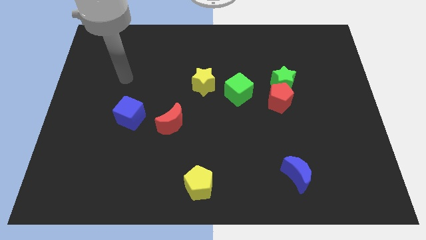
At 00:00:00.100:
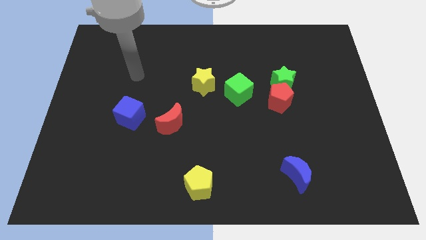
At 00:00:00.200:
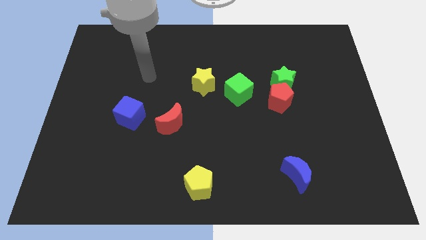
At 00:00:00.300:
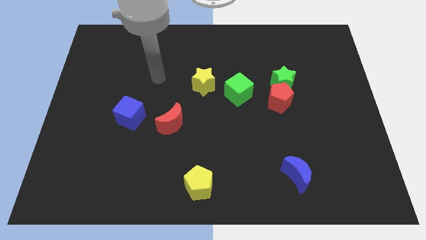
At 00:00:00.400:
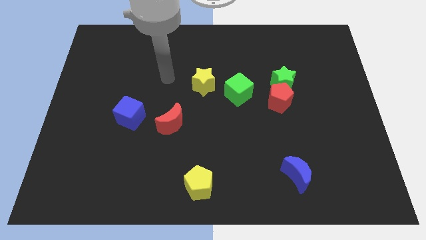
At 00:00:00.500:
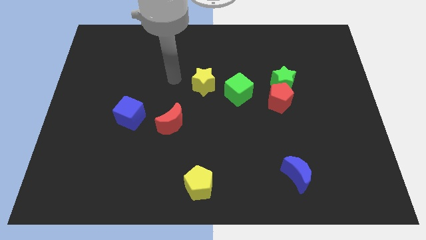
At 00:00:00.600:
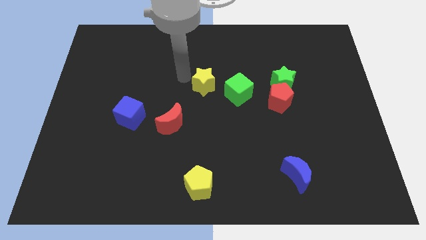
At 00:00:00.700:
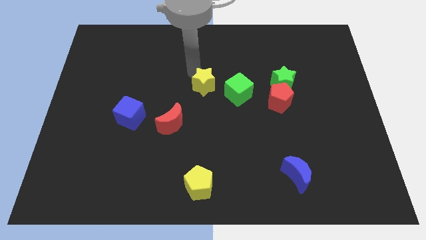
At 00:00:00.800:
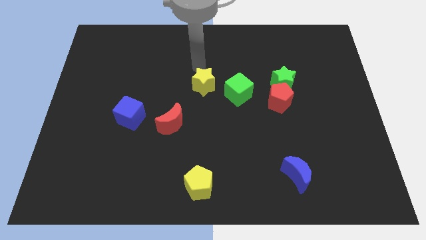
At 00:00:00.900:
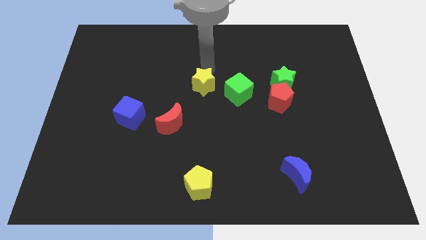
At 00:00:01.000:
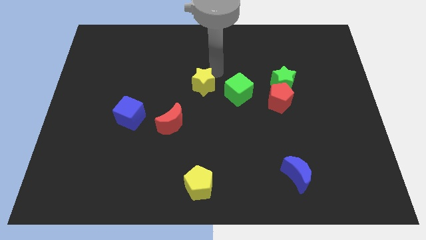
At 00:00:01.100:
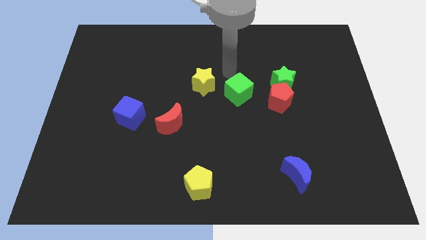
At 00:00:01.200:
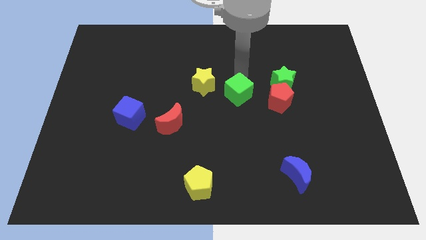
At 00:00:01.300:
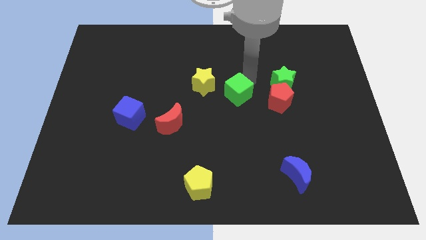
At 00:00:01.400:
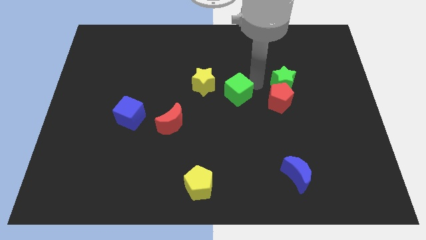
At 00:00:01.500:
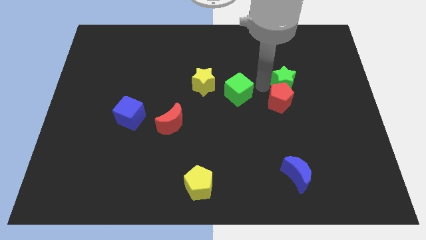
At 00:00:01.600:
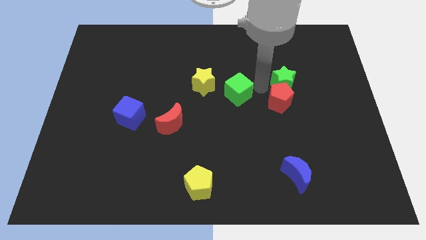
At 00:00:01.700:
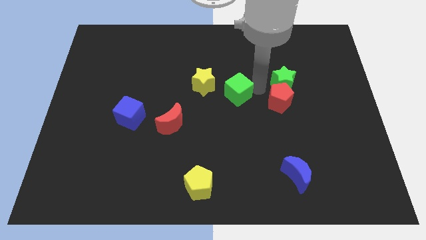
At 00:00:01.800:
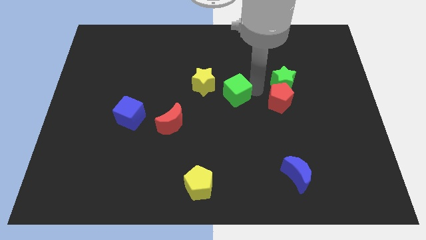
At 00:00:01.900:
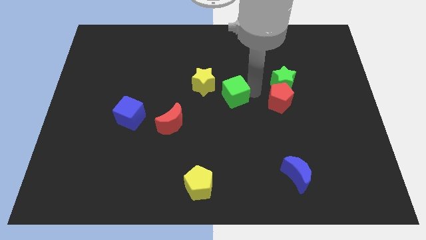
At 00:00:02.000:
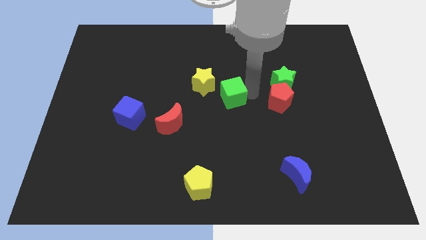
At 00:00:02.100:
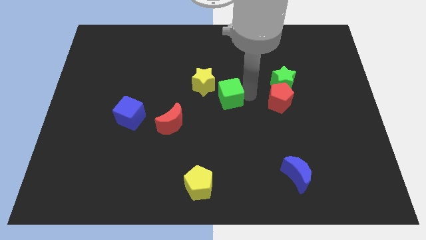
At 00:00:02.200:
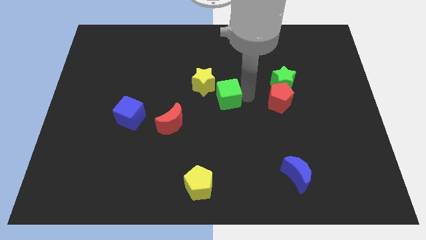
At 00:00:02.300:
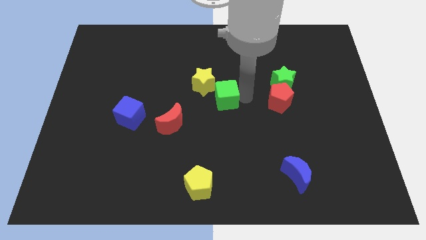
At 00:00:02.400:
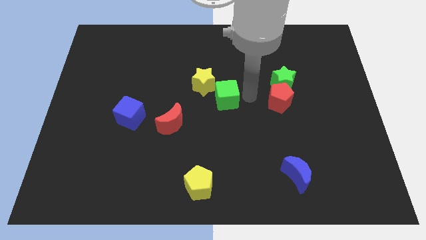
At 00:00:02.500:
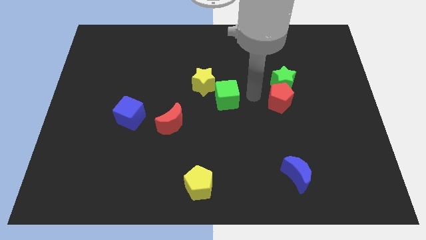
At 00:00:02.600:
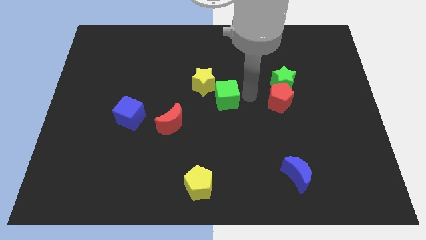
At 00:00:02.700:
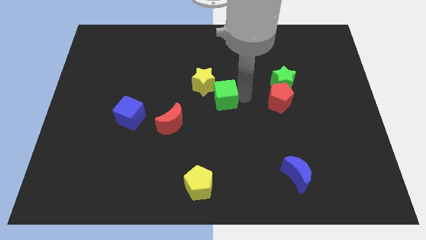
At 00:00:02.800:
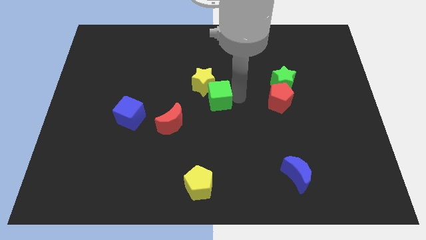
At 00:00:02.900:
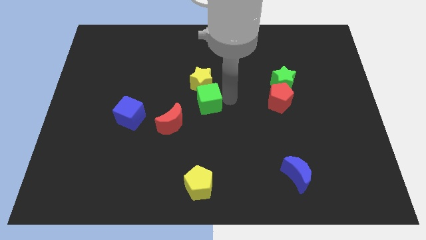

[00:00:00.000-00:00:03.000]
move the green cube left a little bit

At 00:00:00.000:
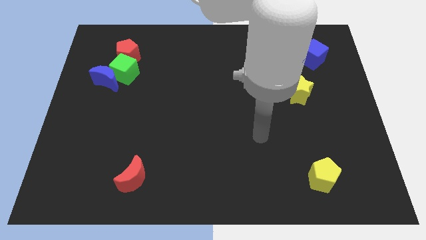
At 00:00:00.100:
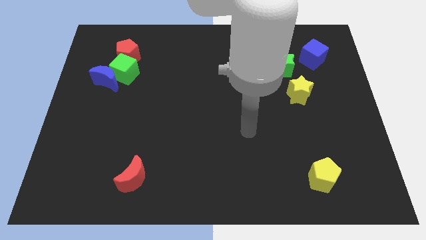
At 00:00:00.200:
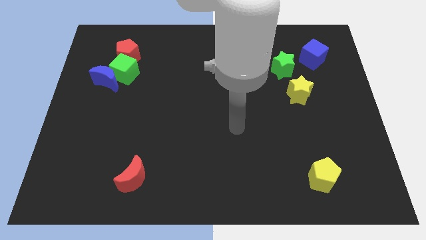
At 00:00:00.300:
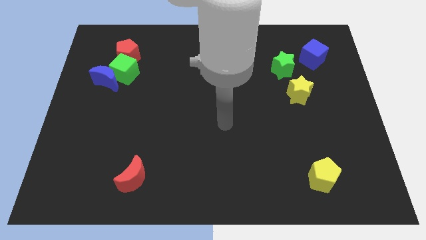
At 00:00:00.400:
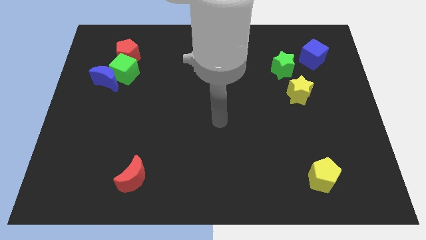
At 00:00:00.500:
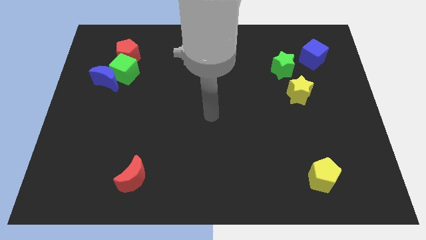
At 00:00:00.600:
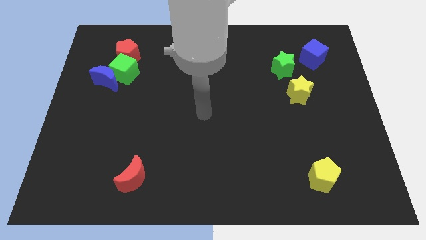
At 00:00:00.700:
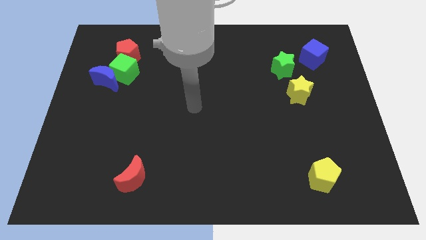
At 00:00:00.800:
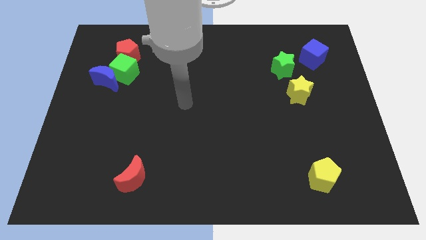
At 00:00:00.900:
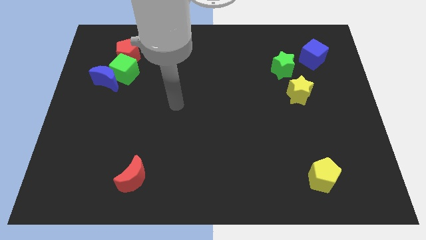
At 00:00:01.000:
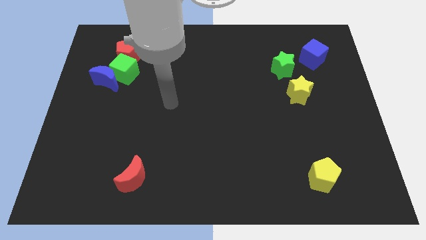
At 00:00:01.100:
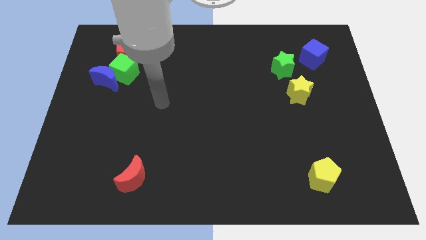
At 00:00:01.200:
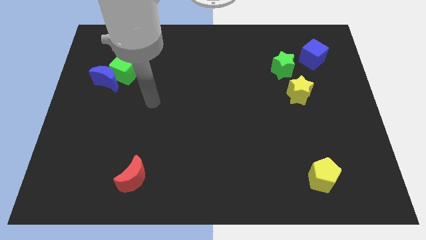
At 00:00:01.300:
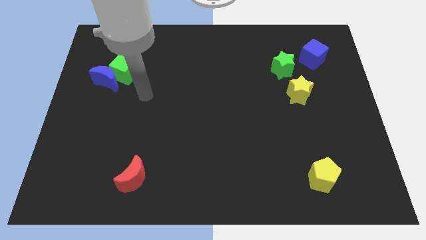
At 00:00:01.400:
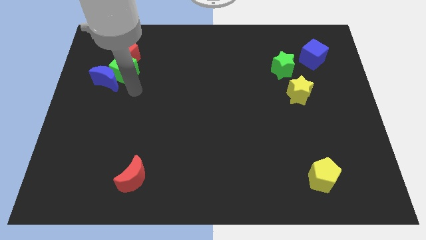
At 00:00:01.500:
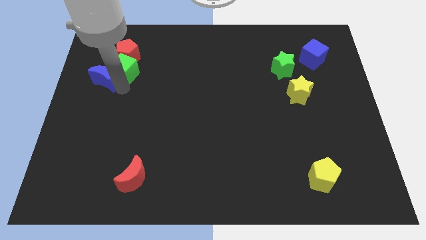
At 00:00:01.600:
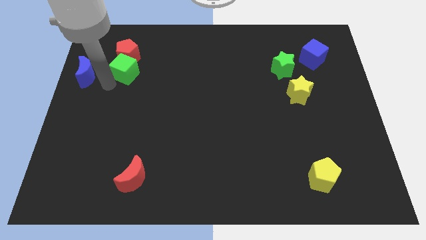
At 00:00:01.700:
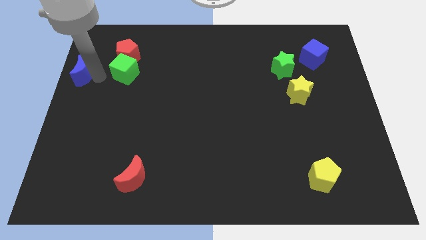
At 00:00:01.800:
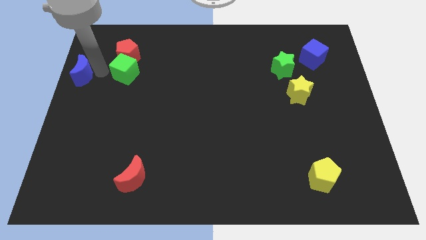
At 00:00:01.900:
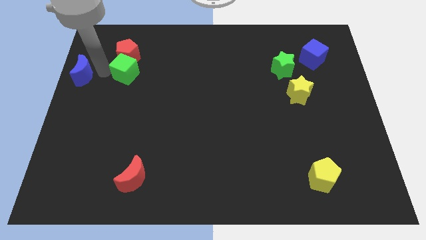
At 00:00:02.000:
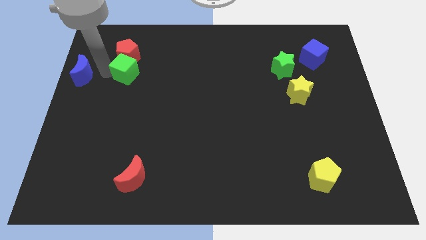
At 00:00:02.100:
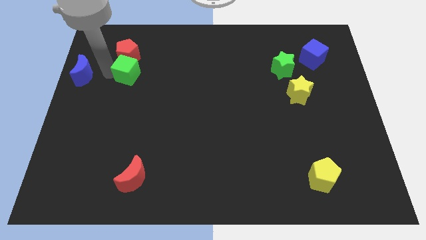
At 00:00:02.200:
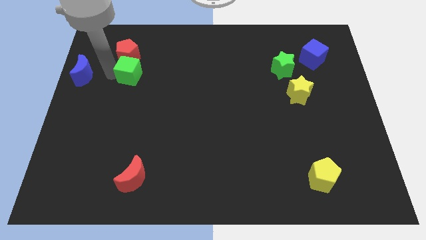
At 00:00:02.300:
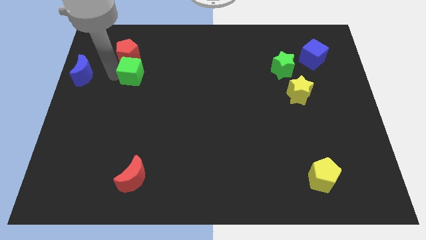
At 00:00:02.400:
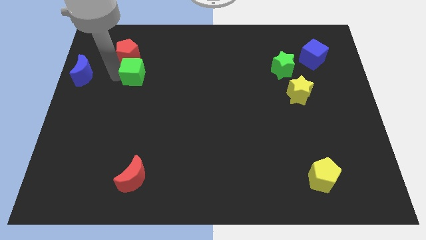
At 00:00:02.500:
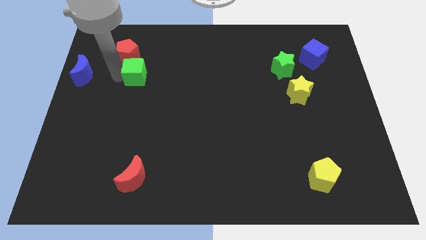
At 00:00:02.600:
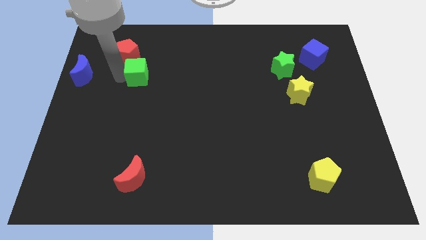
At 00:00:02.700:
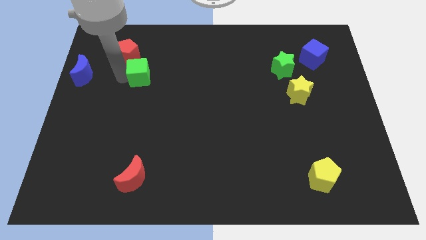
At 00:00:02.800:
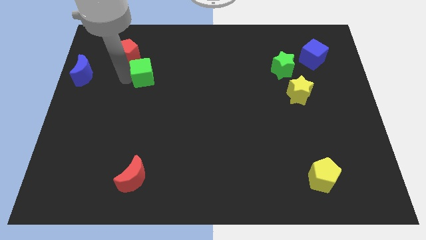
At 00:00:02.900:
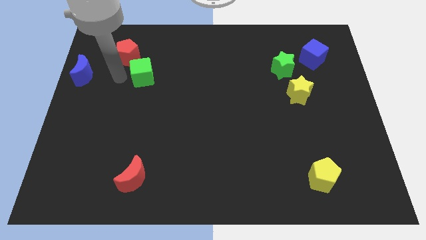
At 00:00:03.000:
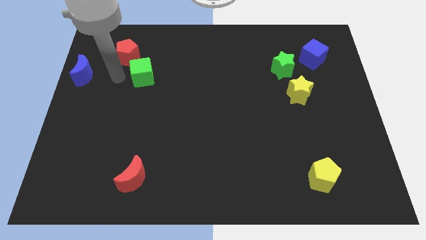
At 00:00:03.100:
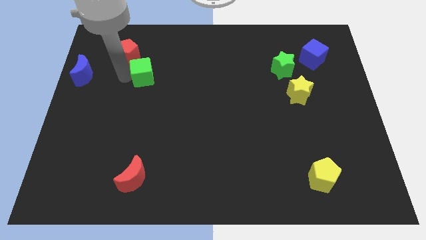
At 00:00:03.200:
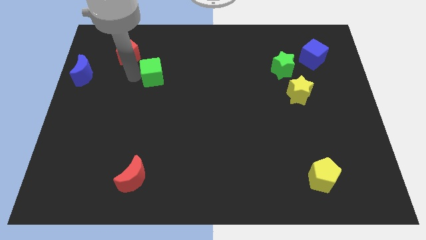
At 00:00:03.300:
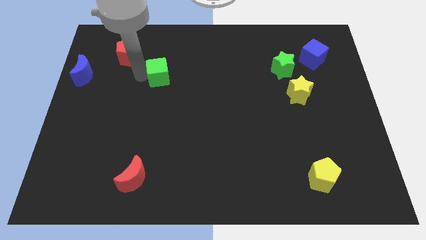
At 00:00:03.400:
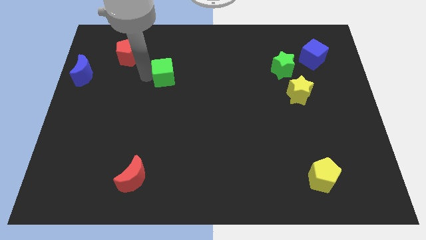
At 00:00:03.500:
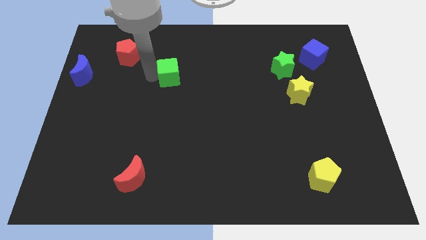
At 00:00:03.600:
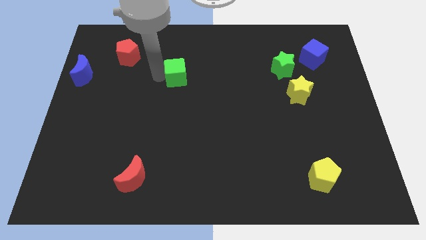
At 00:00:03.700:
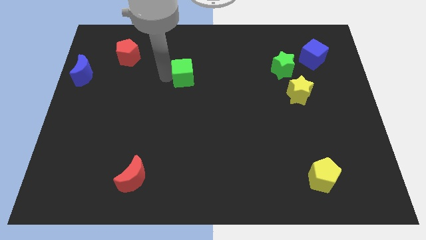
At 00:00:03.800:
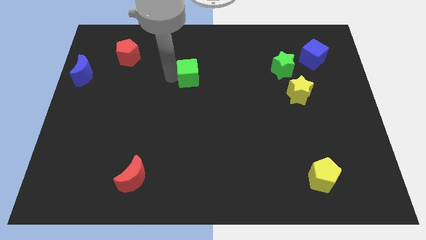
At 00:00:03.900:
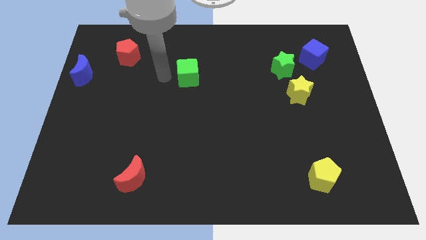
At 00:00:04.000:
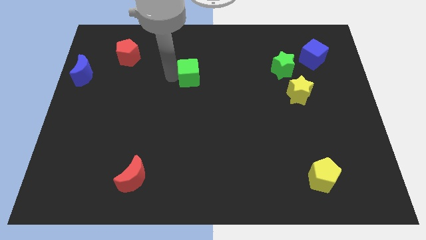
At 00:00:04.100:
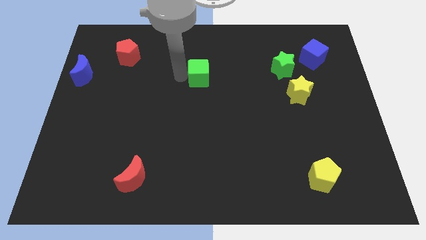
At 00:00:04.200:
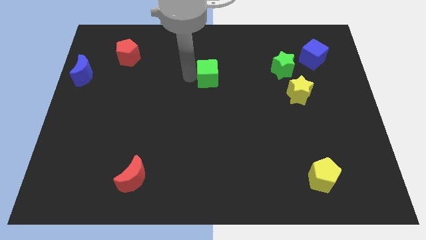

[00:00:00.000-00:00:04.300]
slide the green cube to the right

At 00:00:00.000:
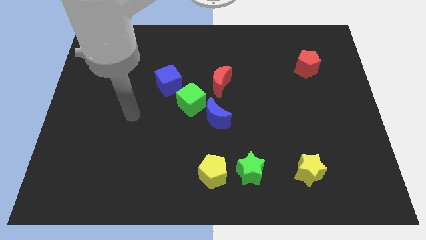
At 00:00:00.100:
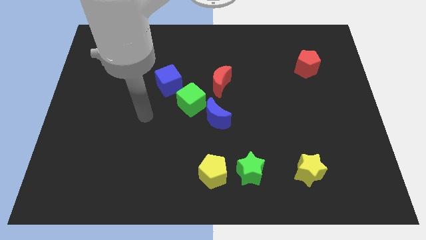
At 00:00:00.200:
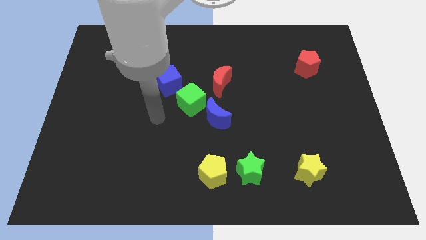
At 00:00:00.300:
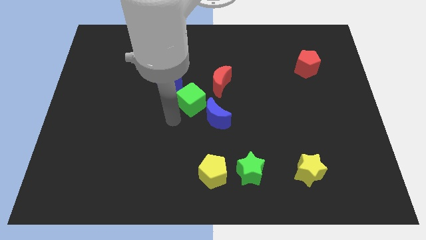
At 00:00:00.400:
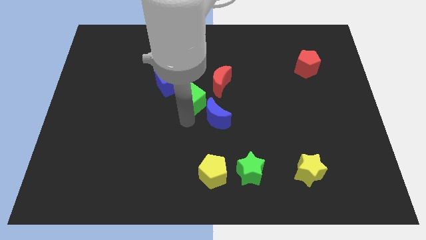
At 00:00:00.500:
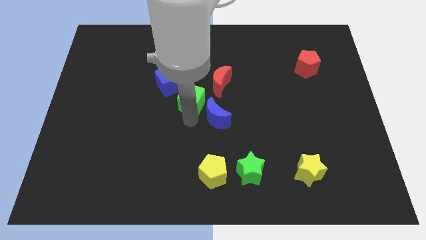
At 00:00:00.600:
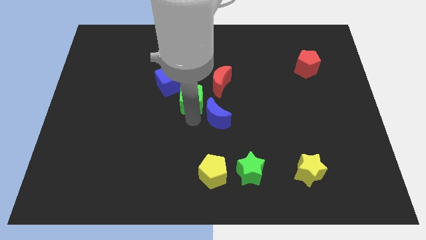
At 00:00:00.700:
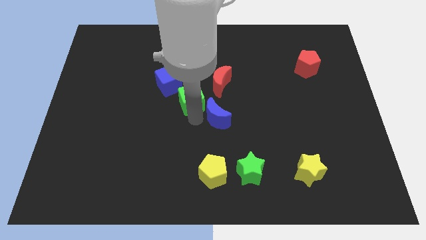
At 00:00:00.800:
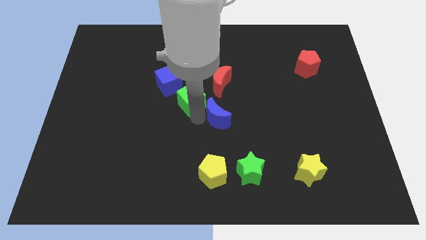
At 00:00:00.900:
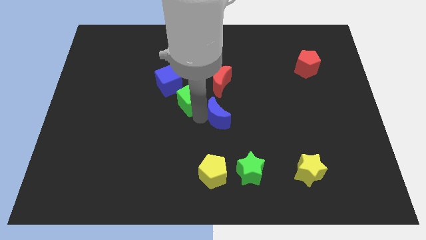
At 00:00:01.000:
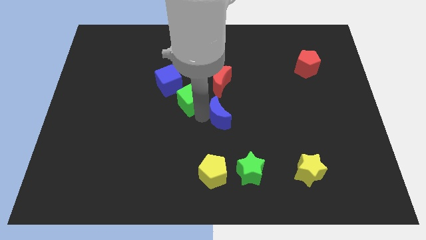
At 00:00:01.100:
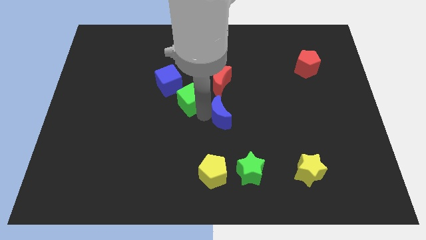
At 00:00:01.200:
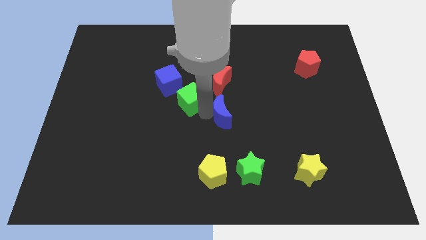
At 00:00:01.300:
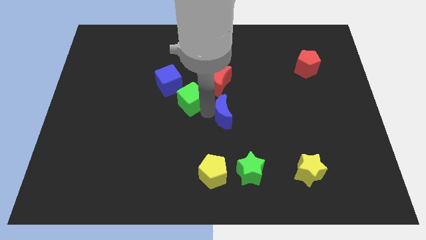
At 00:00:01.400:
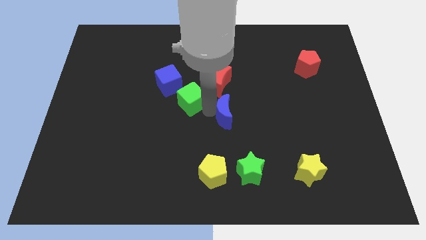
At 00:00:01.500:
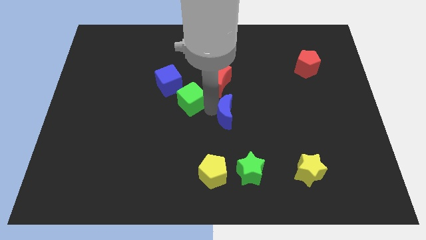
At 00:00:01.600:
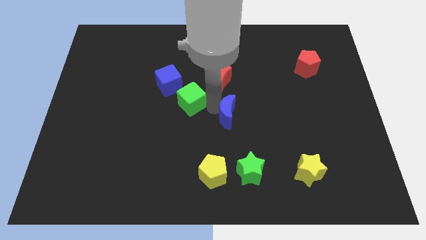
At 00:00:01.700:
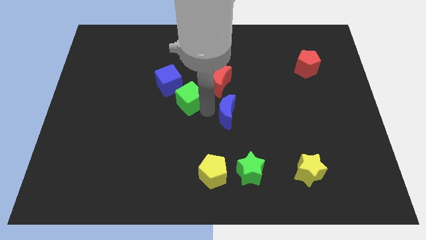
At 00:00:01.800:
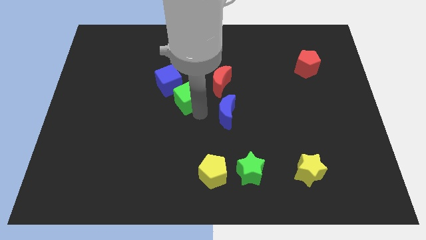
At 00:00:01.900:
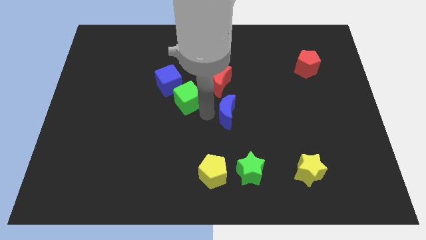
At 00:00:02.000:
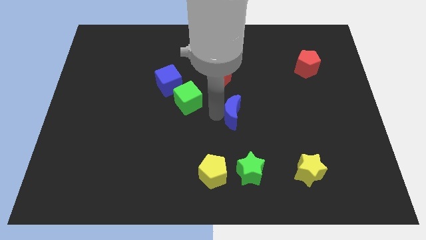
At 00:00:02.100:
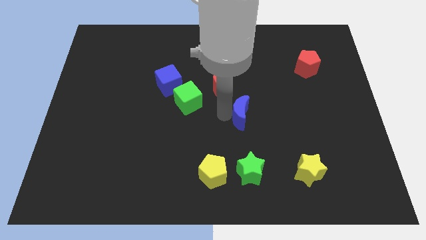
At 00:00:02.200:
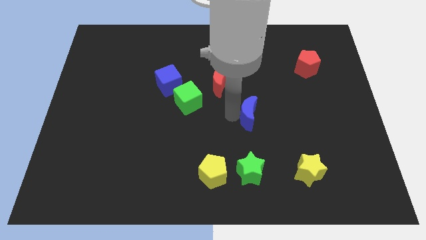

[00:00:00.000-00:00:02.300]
slightly slide the blue moon to the right
